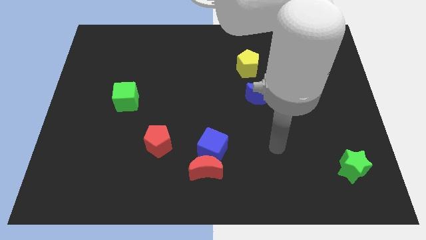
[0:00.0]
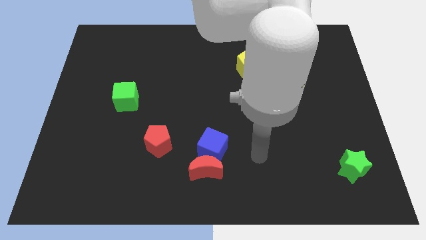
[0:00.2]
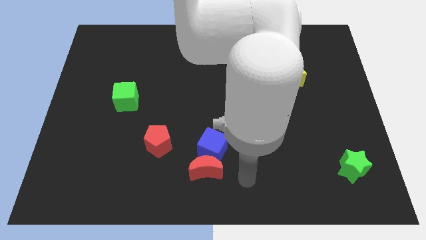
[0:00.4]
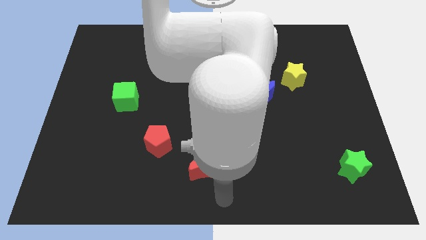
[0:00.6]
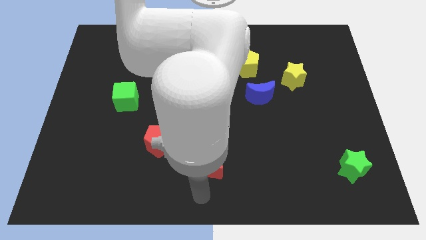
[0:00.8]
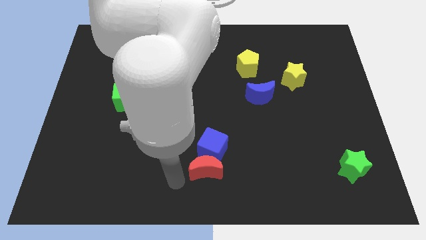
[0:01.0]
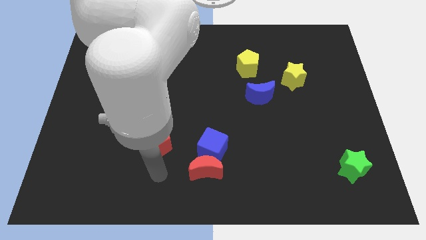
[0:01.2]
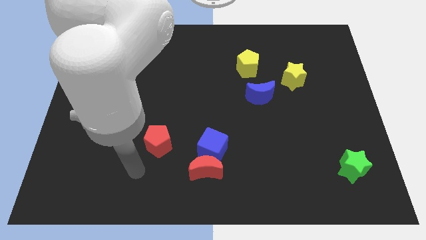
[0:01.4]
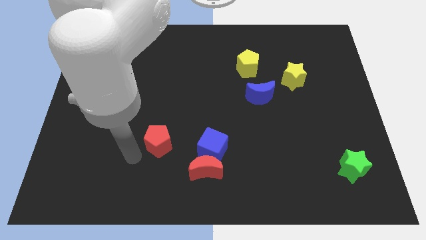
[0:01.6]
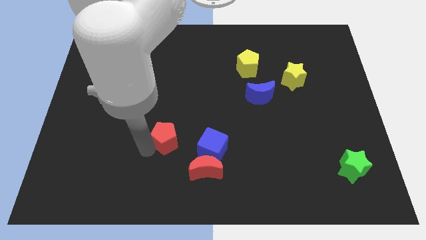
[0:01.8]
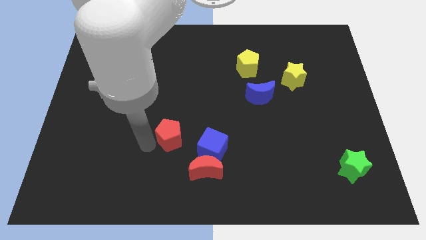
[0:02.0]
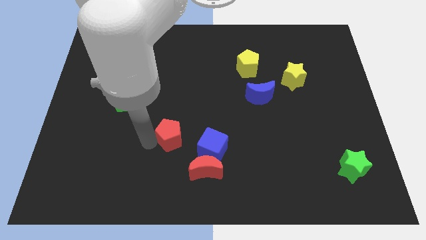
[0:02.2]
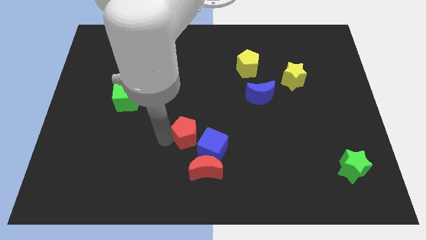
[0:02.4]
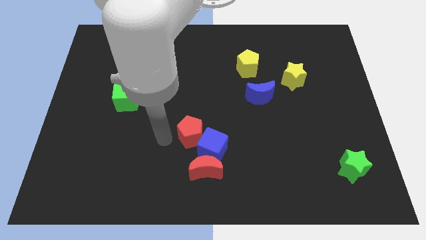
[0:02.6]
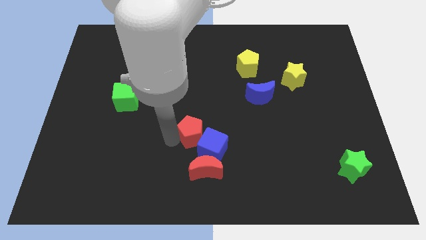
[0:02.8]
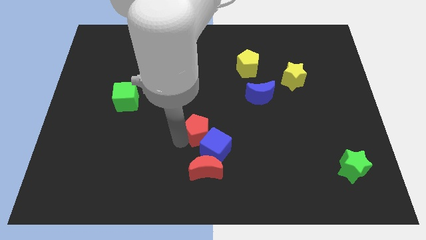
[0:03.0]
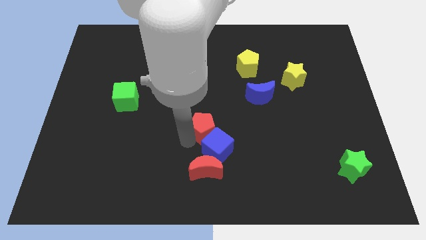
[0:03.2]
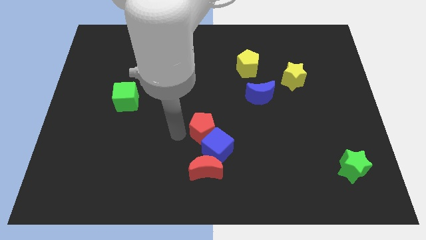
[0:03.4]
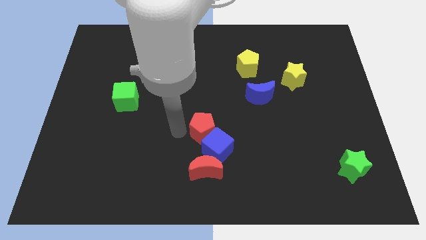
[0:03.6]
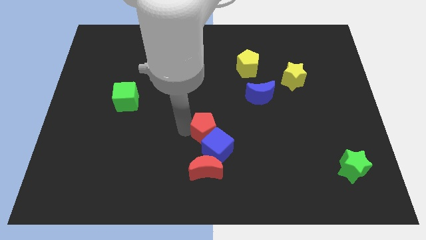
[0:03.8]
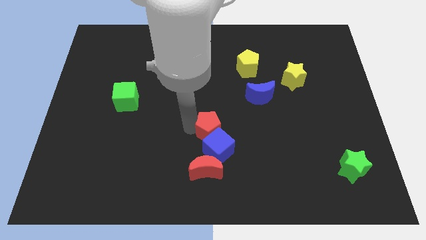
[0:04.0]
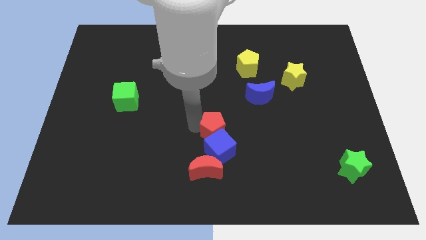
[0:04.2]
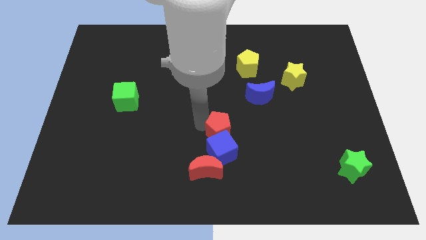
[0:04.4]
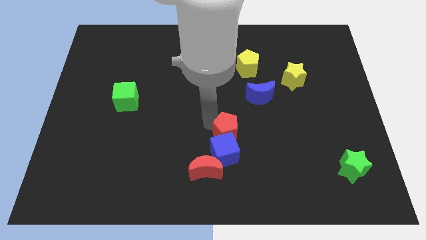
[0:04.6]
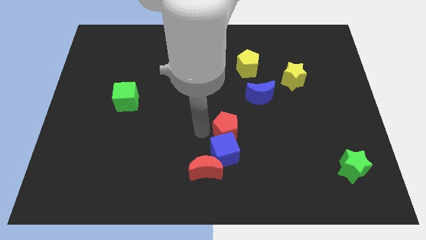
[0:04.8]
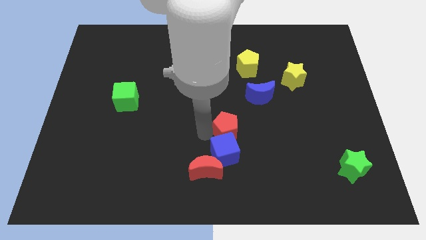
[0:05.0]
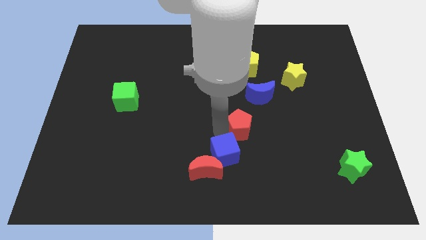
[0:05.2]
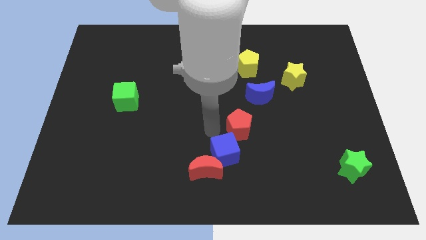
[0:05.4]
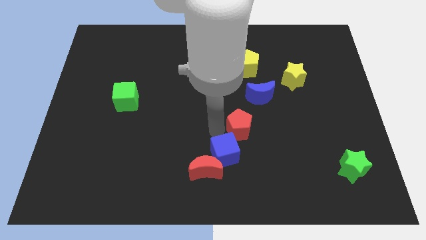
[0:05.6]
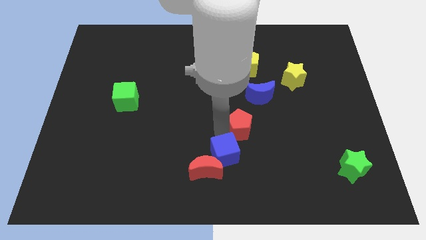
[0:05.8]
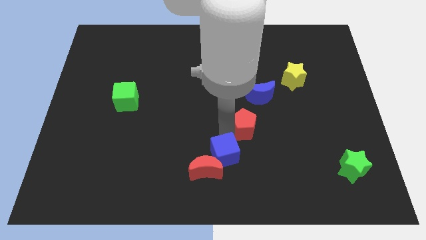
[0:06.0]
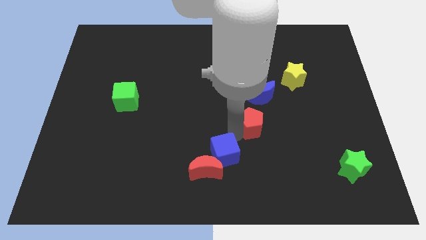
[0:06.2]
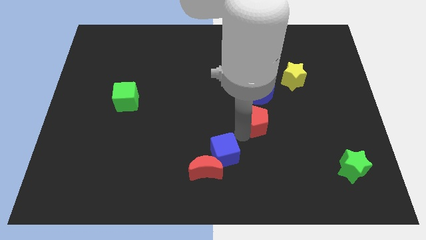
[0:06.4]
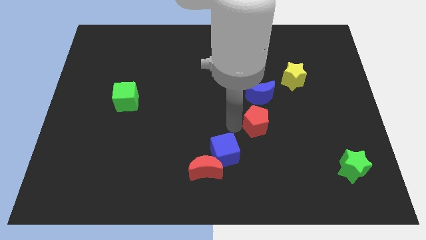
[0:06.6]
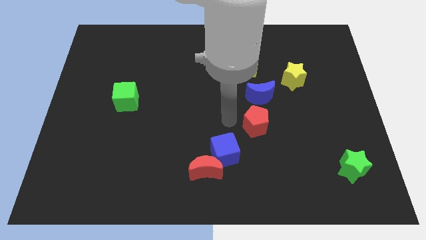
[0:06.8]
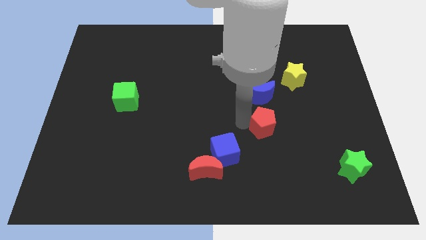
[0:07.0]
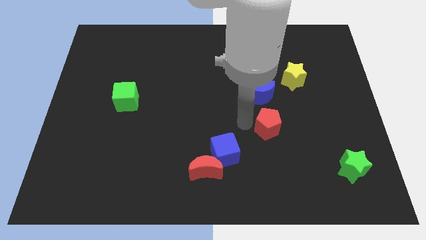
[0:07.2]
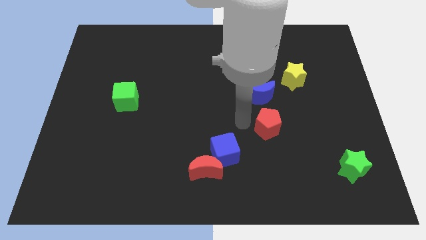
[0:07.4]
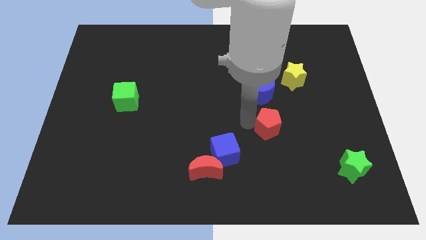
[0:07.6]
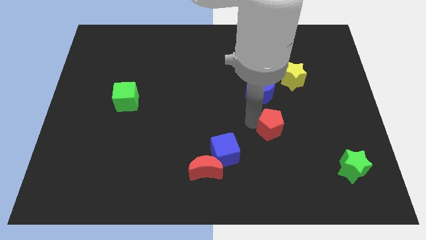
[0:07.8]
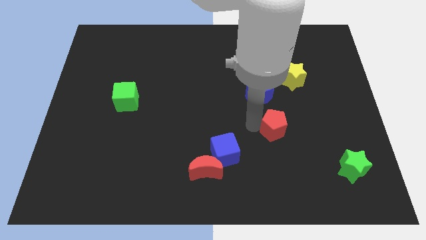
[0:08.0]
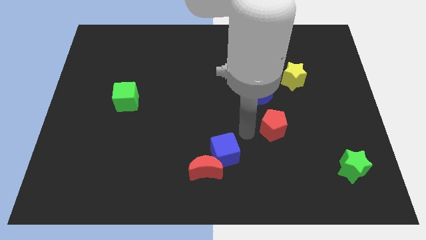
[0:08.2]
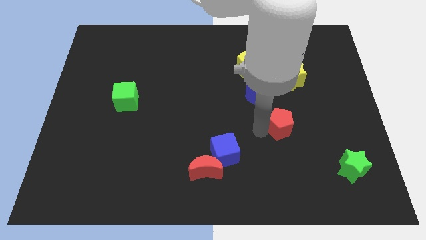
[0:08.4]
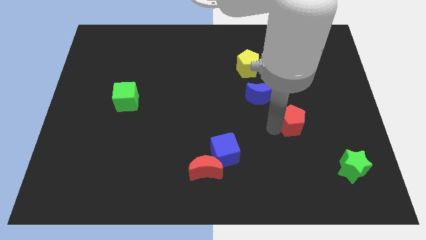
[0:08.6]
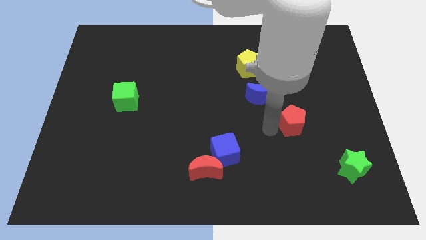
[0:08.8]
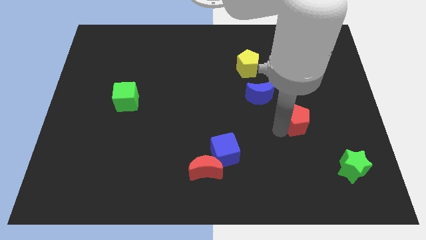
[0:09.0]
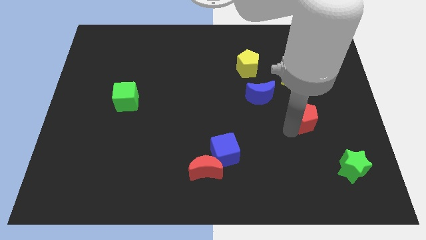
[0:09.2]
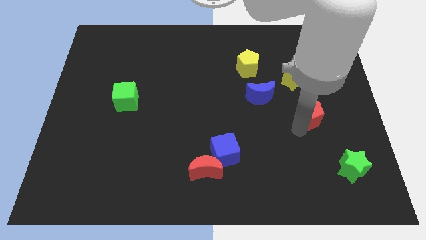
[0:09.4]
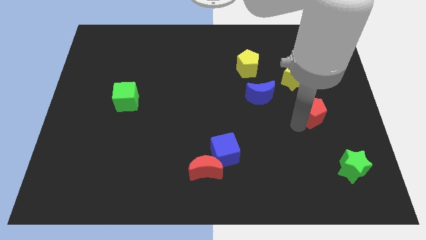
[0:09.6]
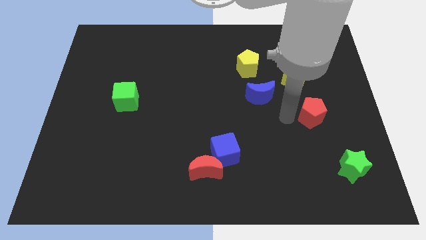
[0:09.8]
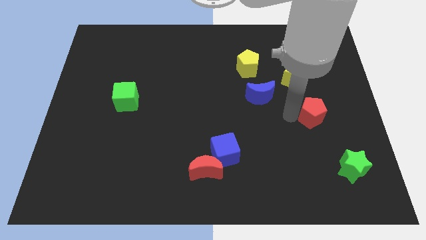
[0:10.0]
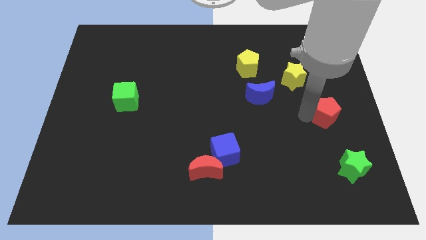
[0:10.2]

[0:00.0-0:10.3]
slide the red pentagon to the right side of the board

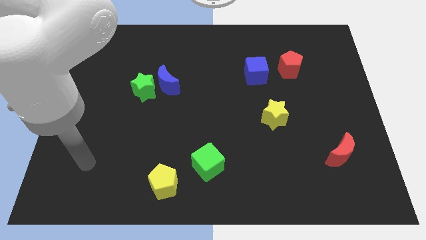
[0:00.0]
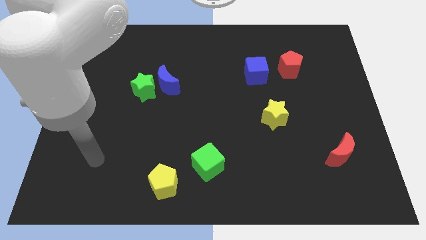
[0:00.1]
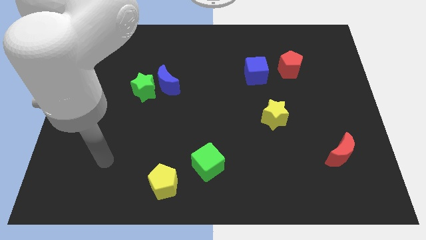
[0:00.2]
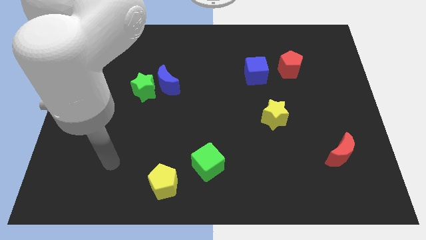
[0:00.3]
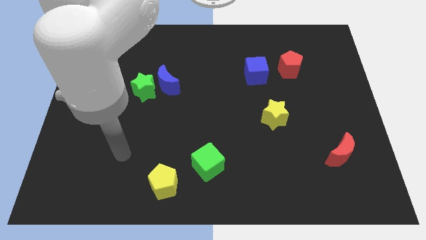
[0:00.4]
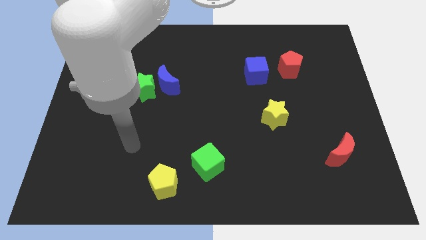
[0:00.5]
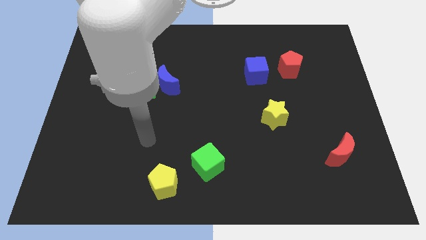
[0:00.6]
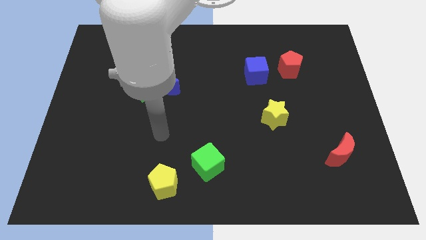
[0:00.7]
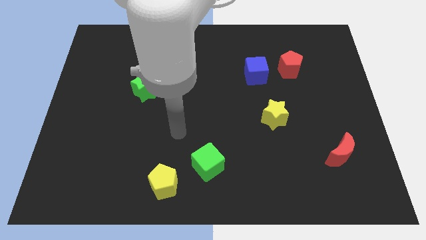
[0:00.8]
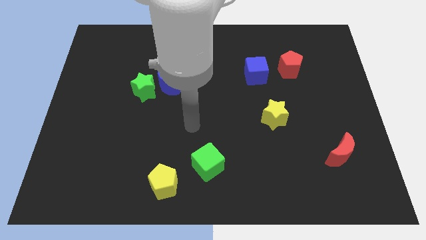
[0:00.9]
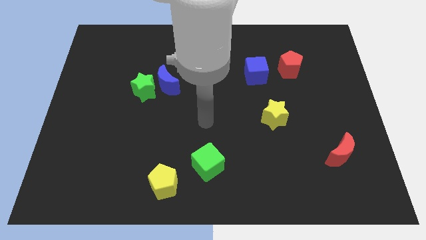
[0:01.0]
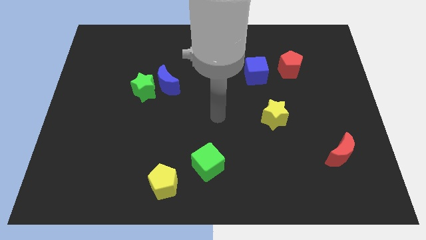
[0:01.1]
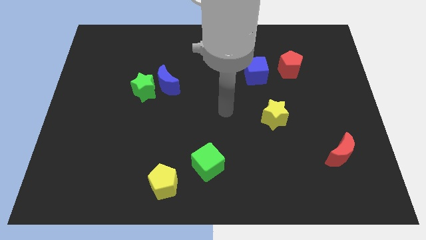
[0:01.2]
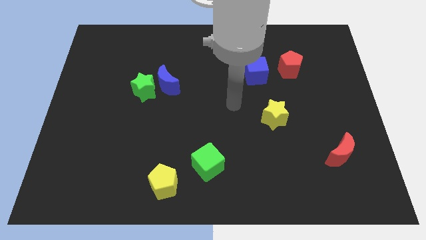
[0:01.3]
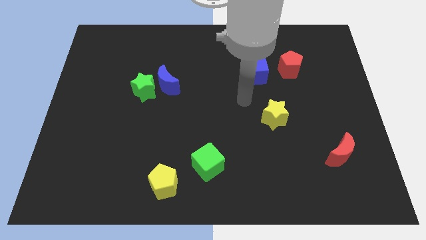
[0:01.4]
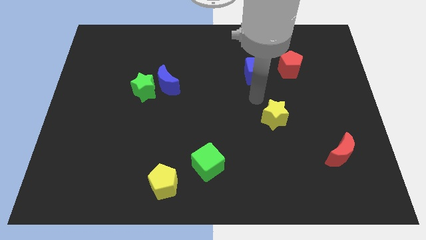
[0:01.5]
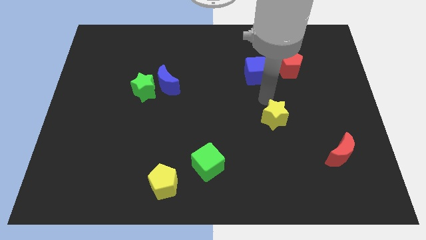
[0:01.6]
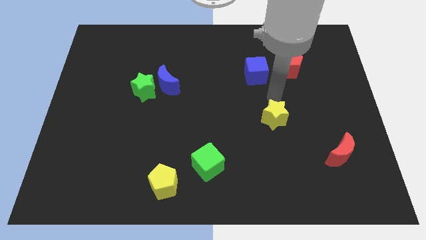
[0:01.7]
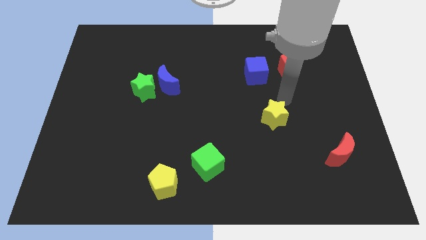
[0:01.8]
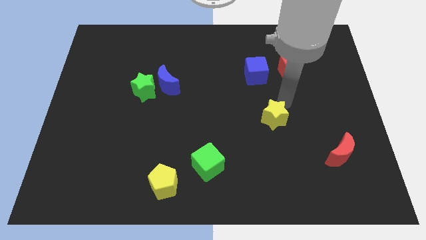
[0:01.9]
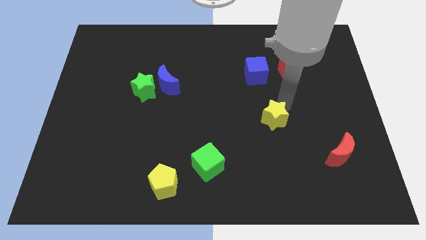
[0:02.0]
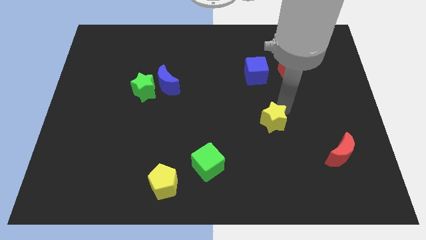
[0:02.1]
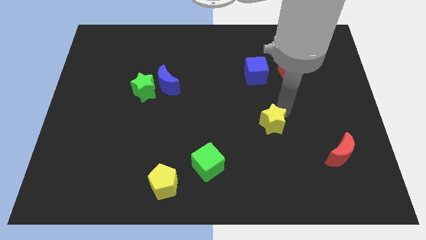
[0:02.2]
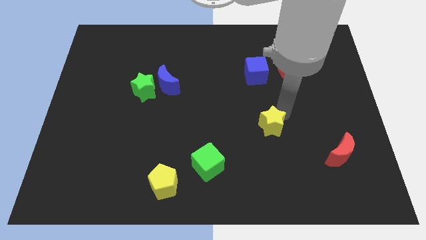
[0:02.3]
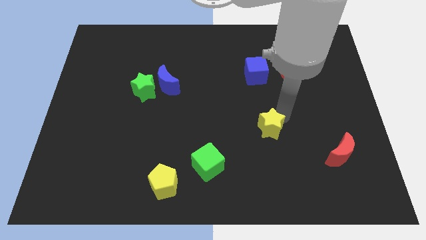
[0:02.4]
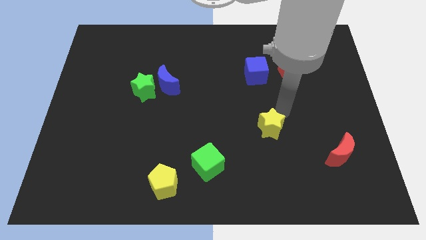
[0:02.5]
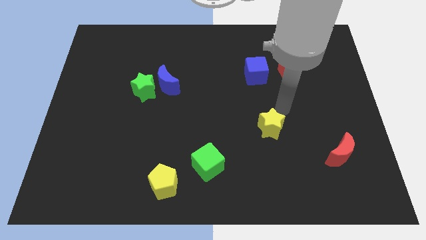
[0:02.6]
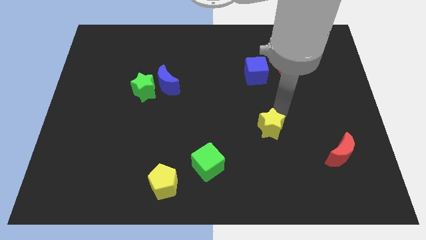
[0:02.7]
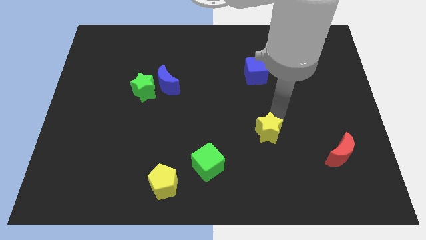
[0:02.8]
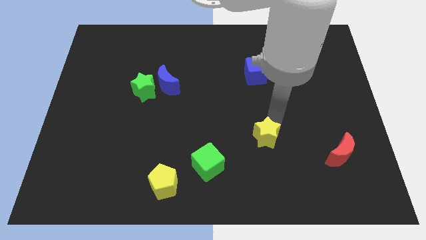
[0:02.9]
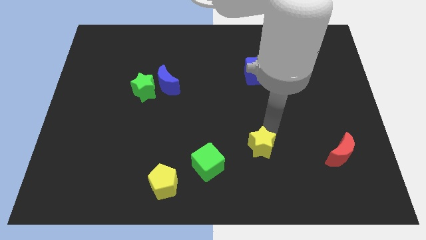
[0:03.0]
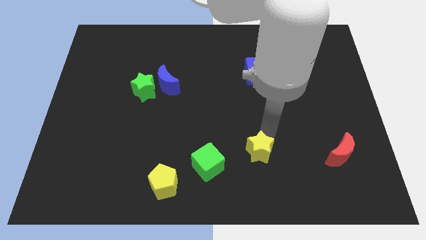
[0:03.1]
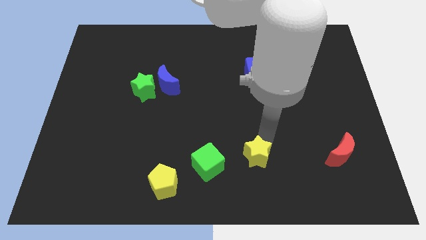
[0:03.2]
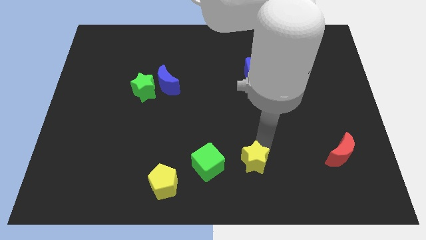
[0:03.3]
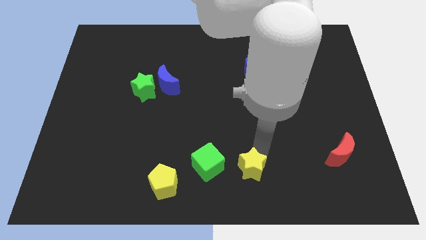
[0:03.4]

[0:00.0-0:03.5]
put the yellow star to the bottom
